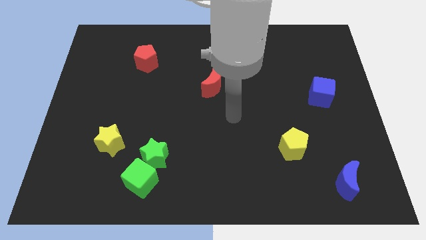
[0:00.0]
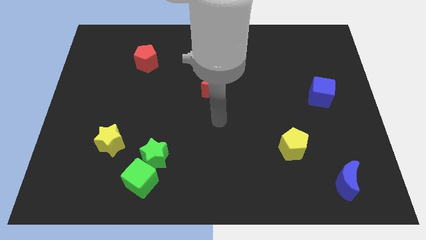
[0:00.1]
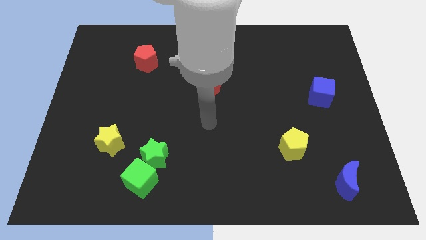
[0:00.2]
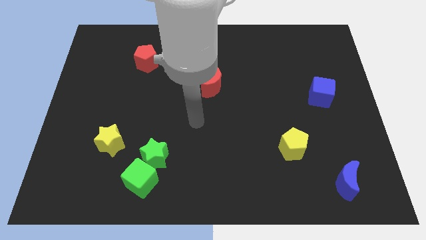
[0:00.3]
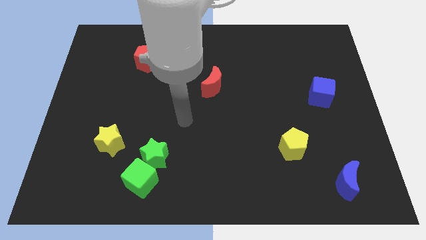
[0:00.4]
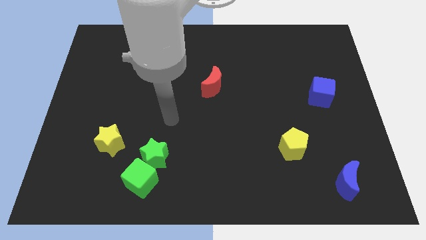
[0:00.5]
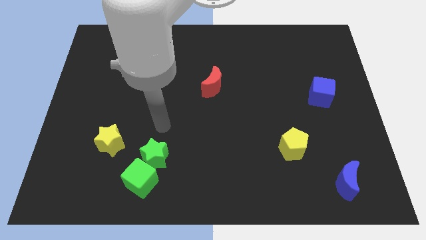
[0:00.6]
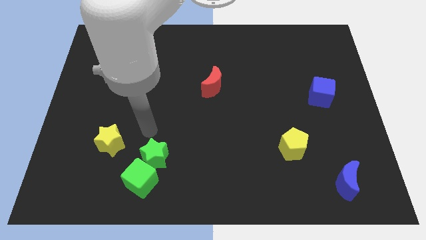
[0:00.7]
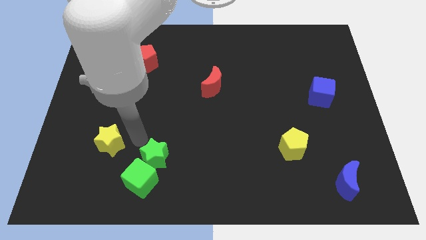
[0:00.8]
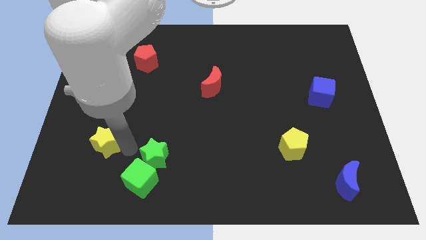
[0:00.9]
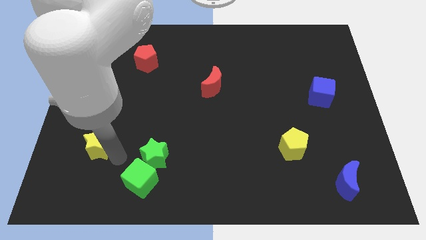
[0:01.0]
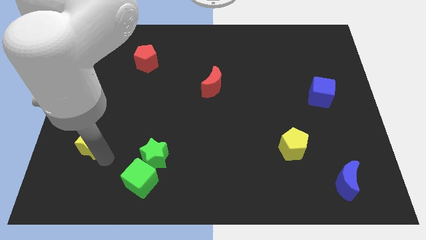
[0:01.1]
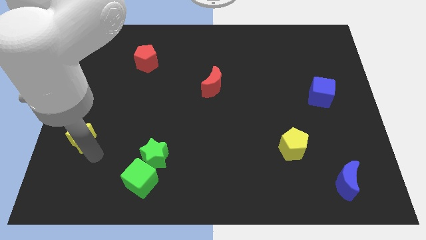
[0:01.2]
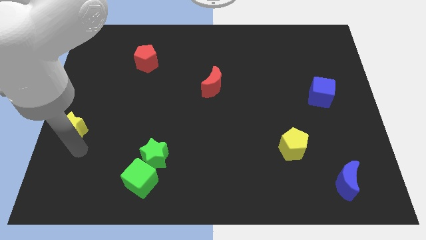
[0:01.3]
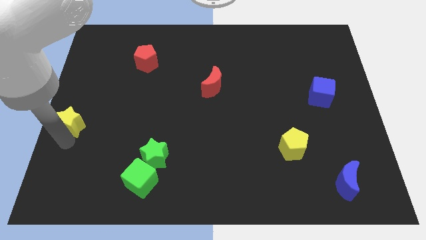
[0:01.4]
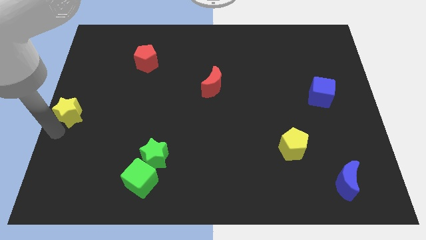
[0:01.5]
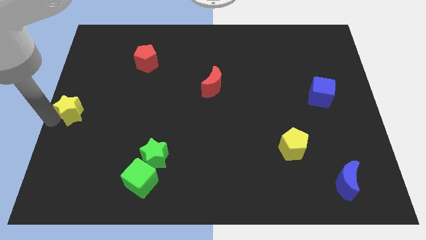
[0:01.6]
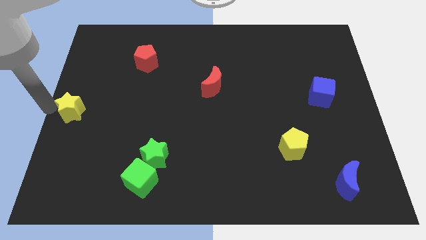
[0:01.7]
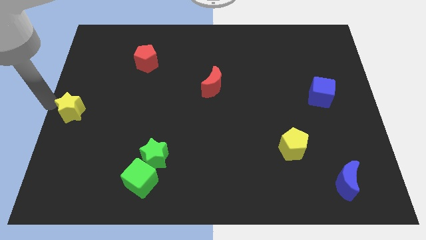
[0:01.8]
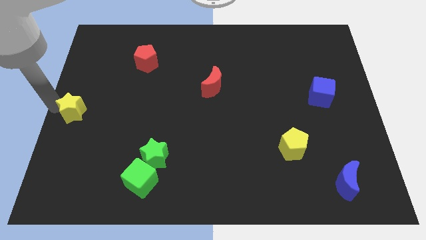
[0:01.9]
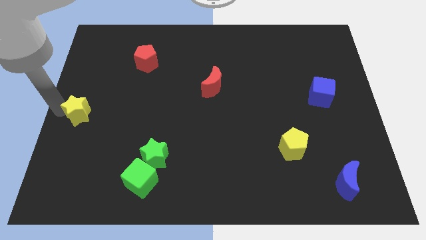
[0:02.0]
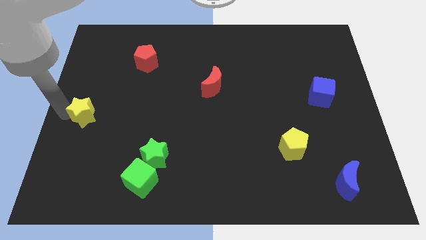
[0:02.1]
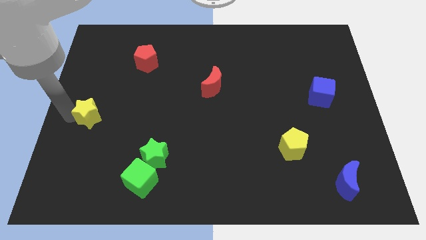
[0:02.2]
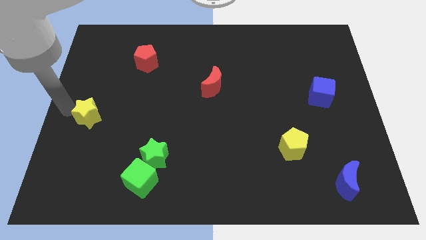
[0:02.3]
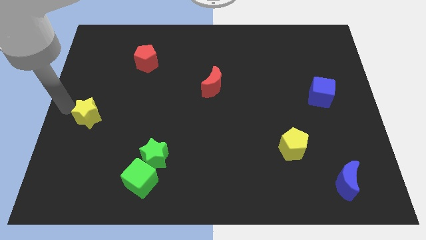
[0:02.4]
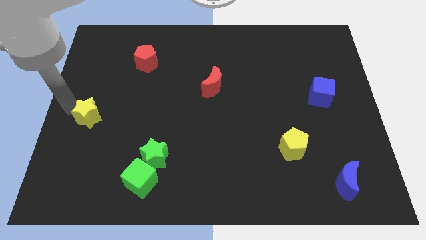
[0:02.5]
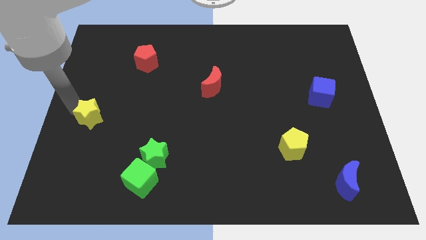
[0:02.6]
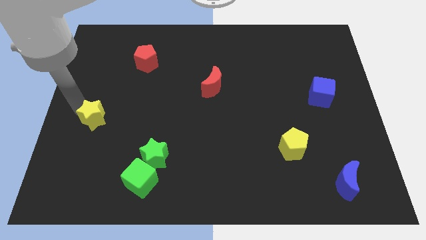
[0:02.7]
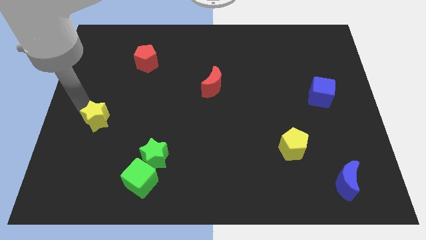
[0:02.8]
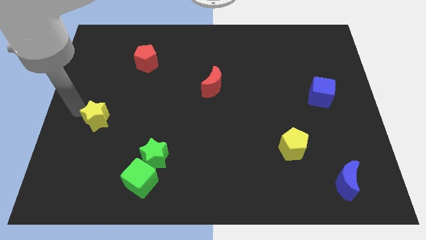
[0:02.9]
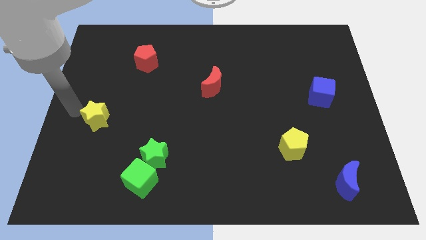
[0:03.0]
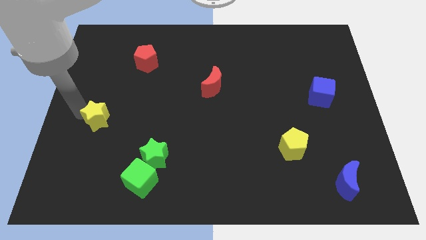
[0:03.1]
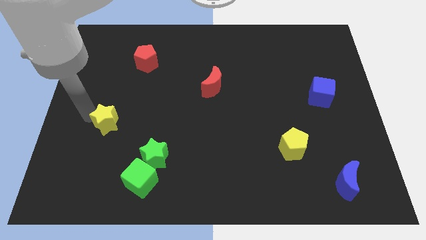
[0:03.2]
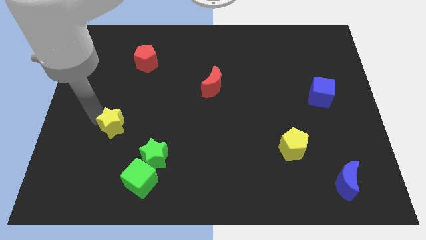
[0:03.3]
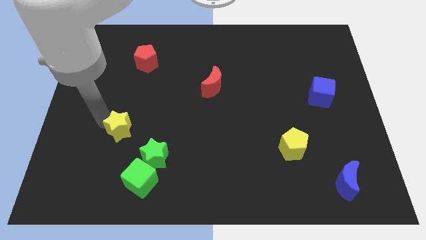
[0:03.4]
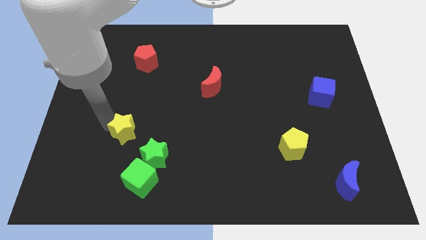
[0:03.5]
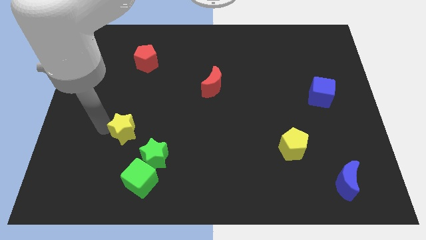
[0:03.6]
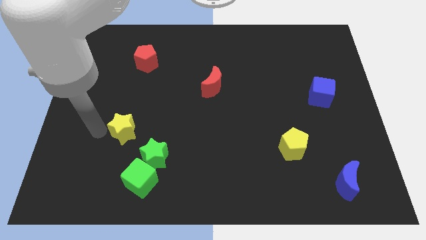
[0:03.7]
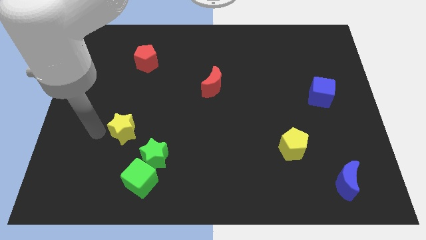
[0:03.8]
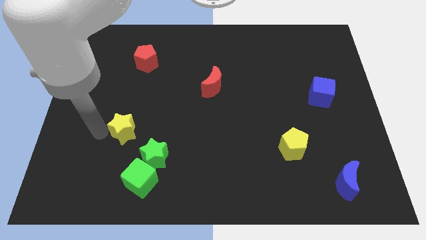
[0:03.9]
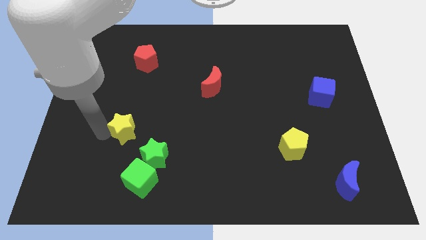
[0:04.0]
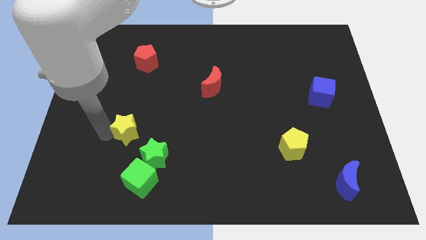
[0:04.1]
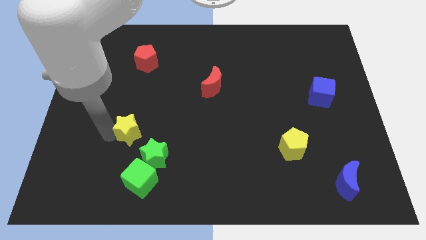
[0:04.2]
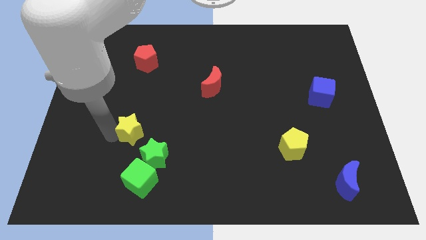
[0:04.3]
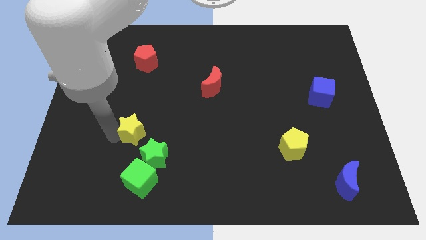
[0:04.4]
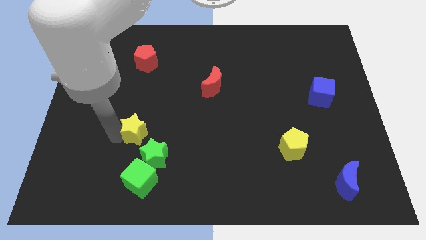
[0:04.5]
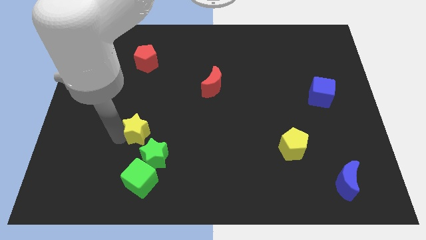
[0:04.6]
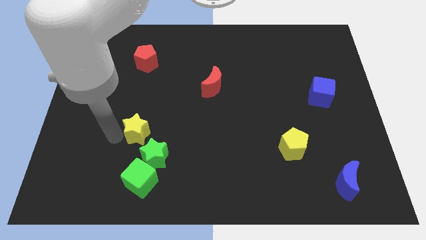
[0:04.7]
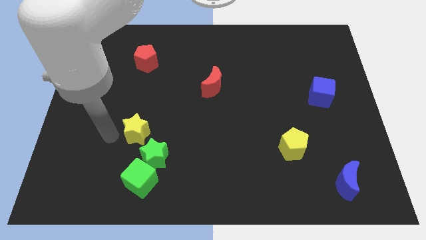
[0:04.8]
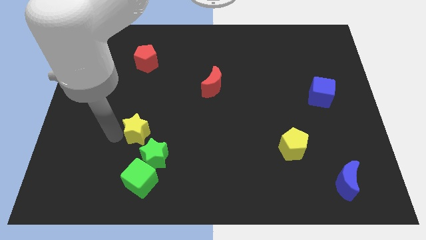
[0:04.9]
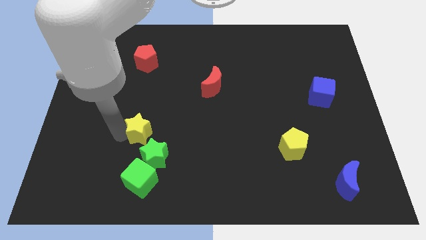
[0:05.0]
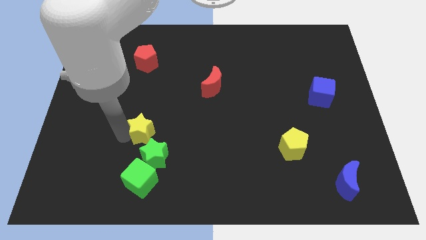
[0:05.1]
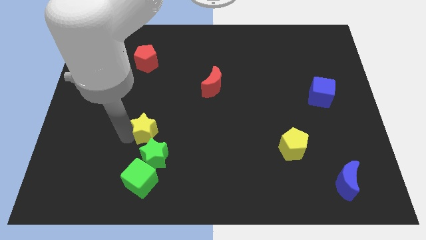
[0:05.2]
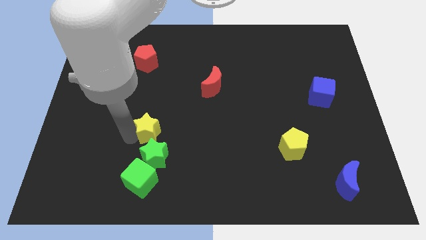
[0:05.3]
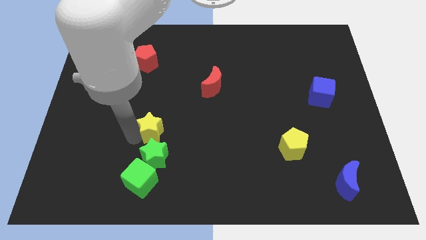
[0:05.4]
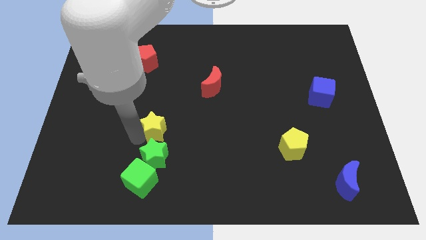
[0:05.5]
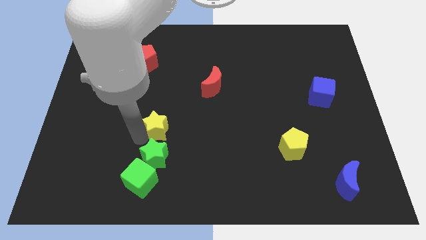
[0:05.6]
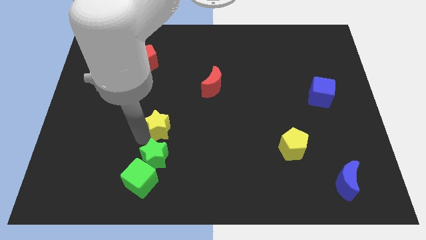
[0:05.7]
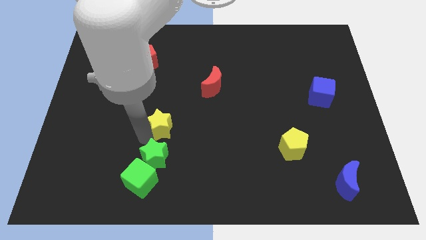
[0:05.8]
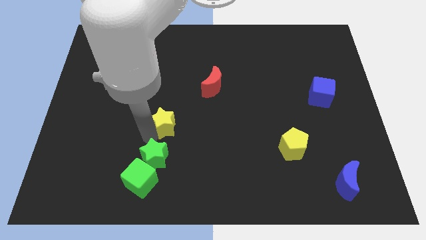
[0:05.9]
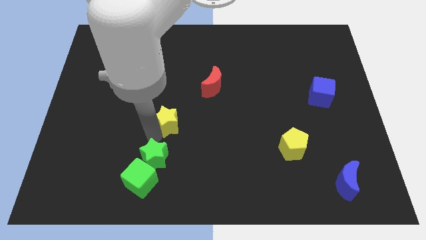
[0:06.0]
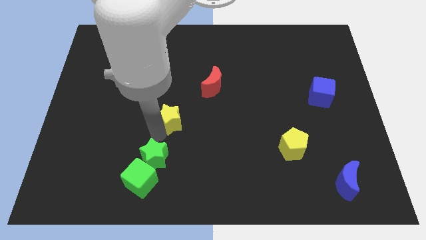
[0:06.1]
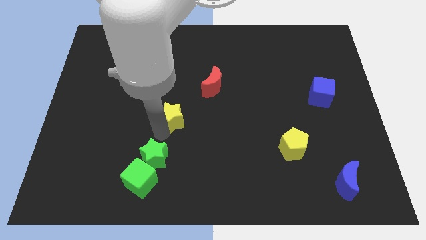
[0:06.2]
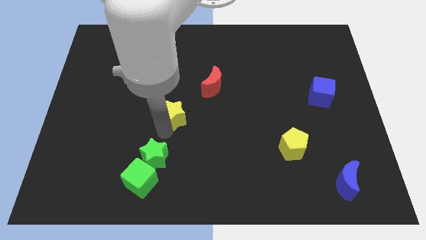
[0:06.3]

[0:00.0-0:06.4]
move the yellow star to the bottom left side of the red moon
